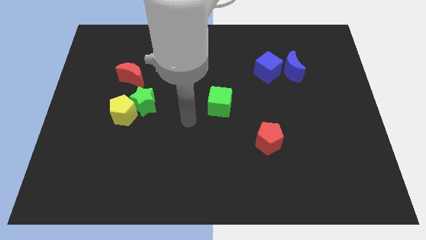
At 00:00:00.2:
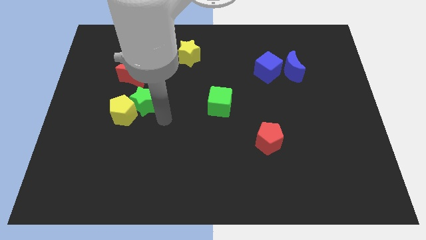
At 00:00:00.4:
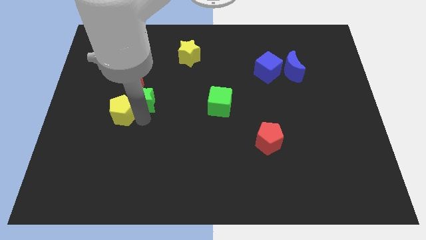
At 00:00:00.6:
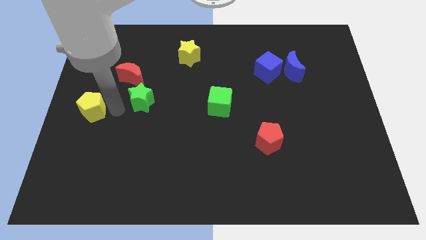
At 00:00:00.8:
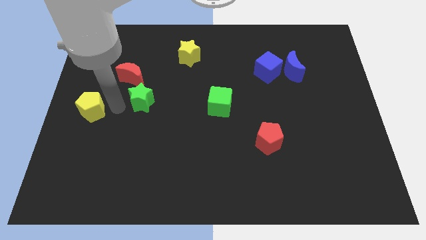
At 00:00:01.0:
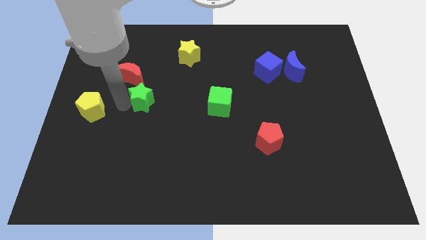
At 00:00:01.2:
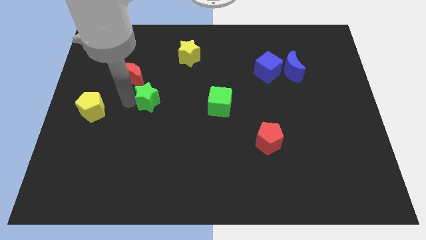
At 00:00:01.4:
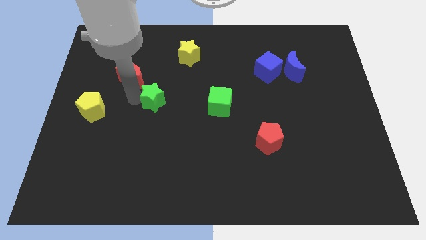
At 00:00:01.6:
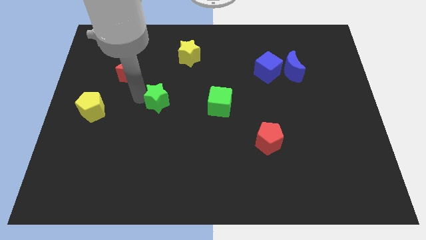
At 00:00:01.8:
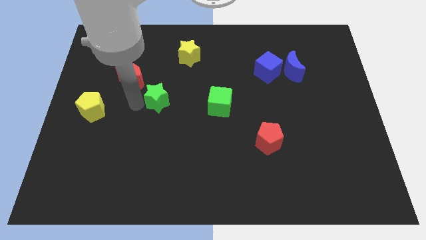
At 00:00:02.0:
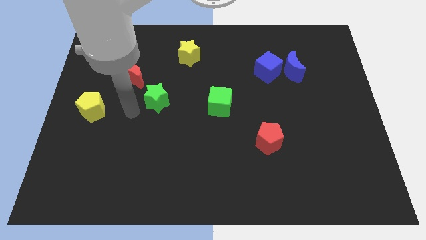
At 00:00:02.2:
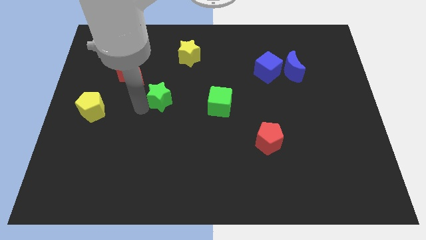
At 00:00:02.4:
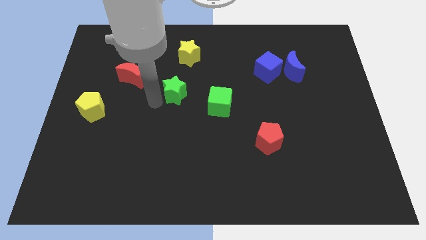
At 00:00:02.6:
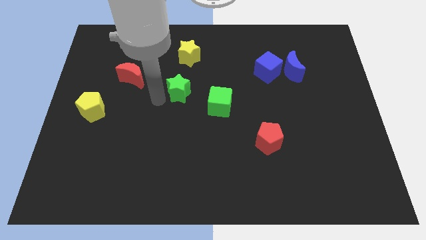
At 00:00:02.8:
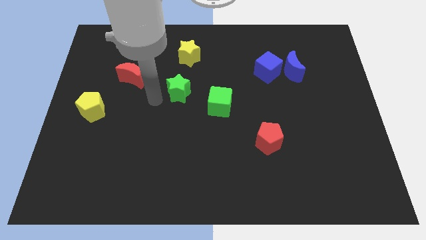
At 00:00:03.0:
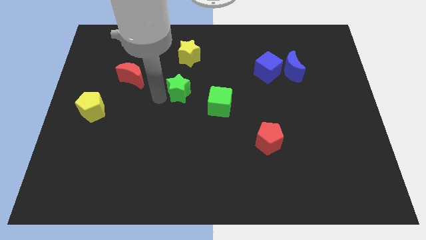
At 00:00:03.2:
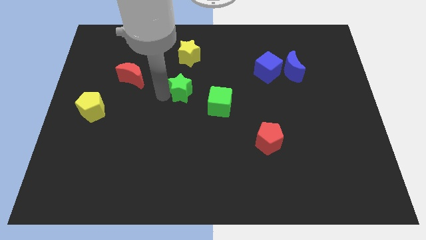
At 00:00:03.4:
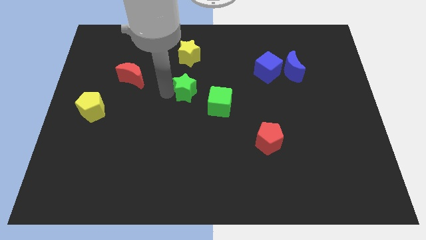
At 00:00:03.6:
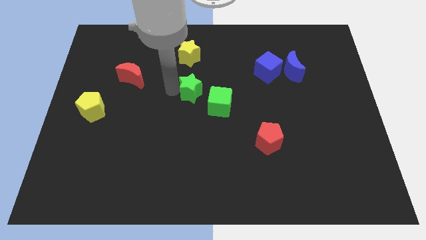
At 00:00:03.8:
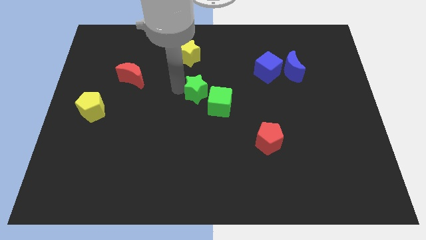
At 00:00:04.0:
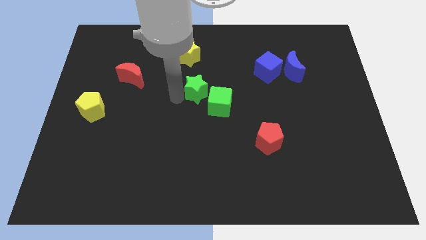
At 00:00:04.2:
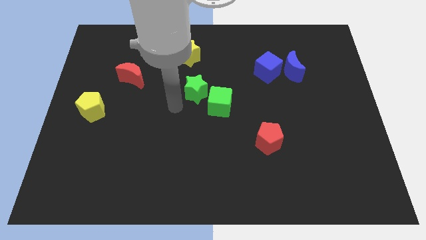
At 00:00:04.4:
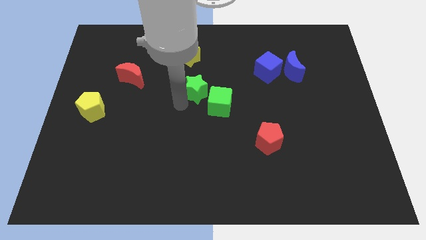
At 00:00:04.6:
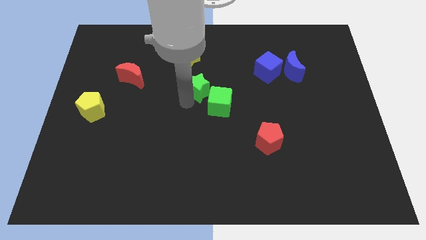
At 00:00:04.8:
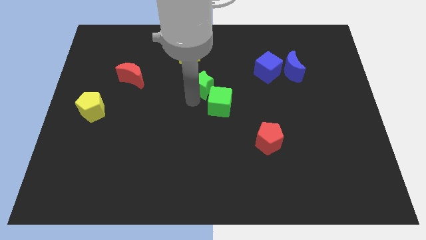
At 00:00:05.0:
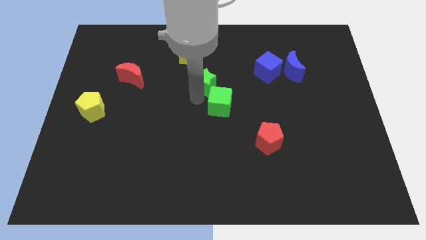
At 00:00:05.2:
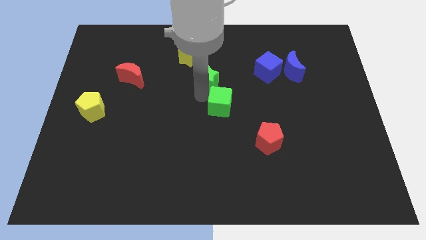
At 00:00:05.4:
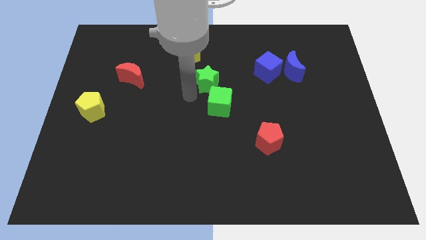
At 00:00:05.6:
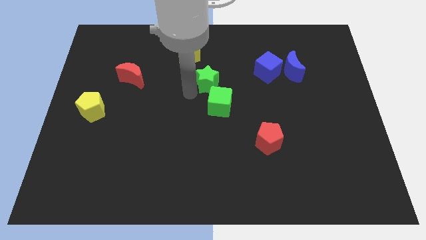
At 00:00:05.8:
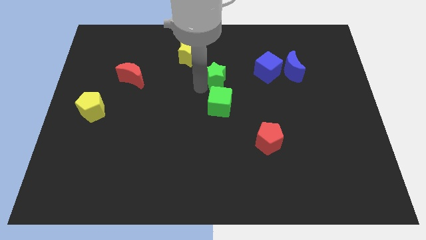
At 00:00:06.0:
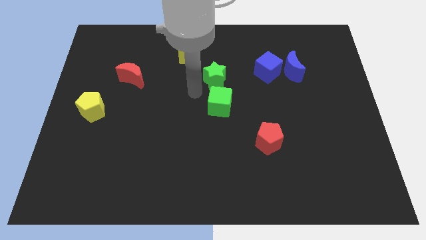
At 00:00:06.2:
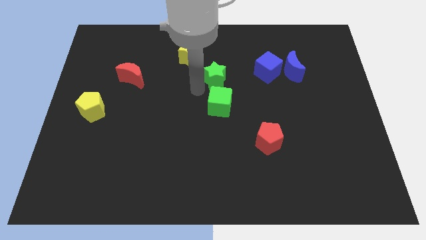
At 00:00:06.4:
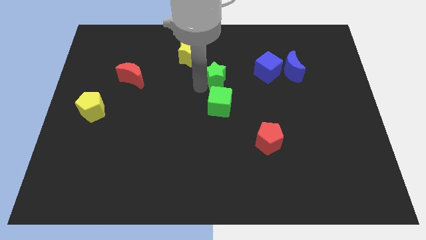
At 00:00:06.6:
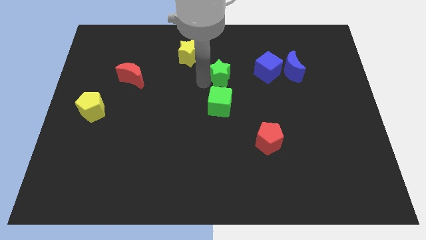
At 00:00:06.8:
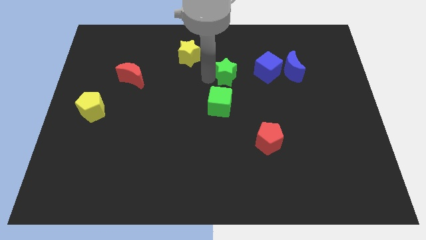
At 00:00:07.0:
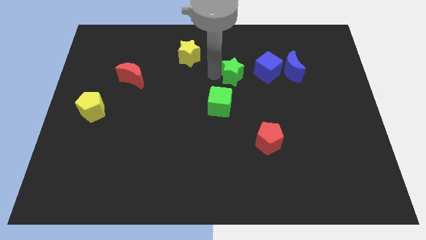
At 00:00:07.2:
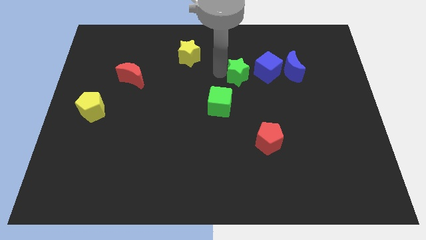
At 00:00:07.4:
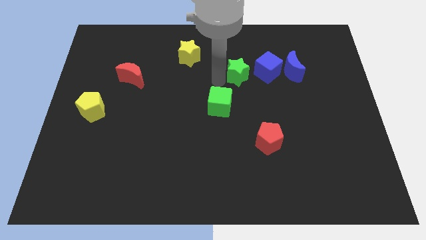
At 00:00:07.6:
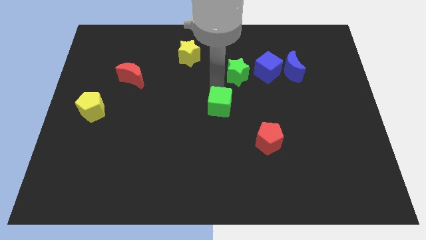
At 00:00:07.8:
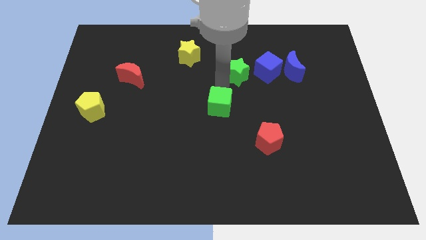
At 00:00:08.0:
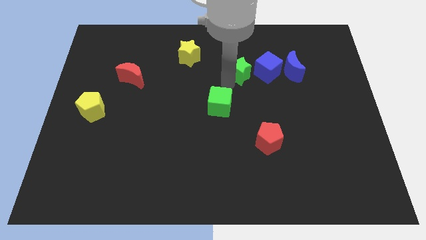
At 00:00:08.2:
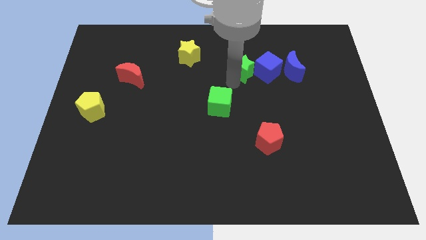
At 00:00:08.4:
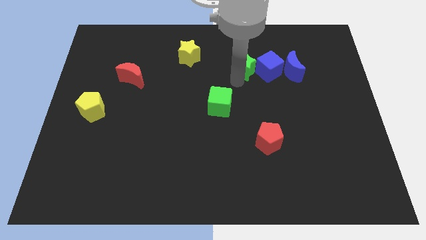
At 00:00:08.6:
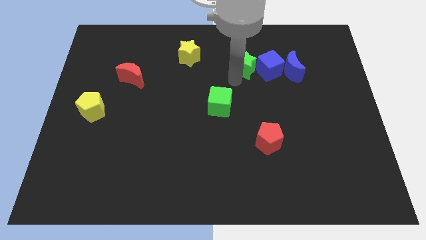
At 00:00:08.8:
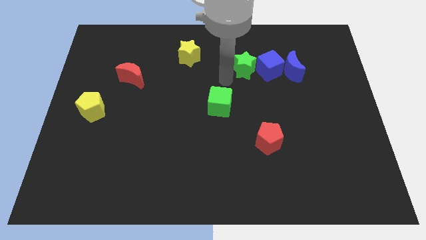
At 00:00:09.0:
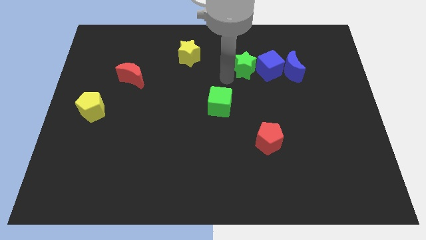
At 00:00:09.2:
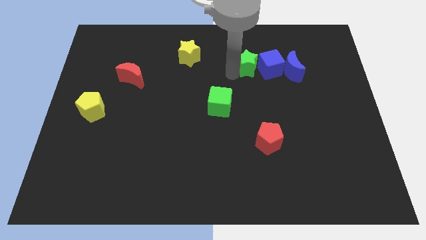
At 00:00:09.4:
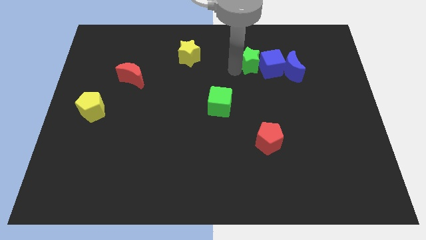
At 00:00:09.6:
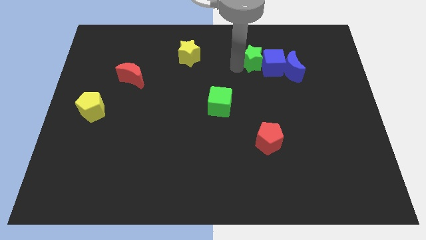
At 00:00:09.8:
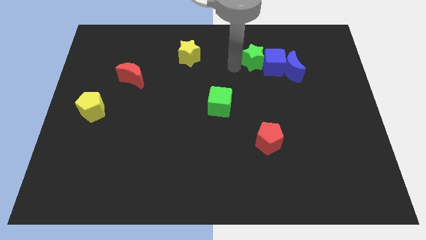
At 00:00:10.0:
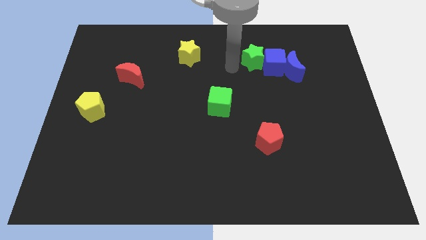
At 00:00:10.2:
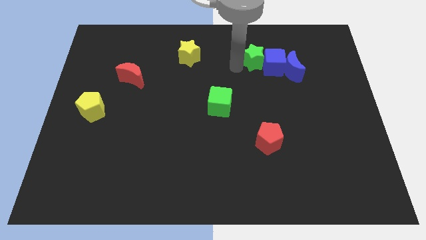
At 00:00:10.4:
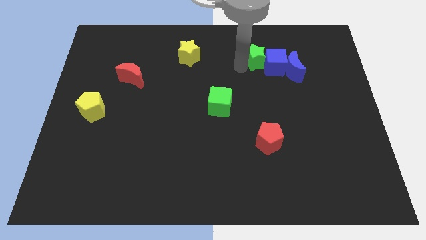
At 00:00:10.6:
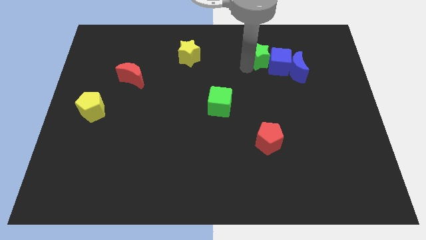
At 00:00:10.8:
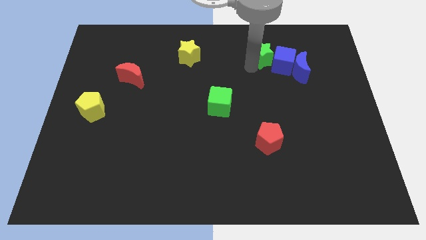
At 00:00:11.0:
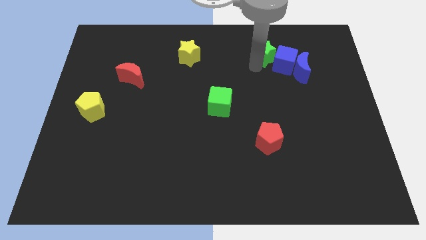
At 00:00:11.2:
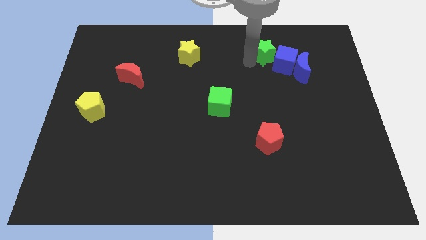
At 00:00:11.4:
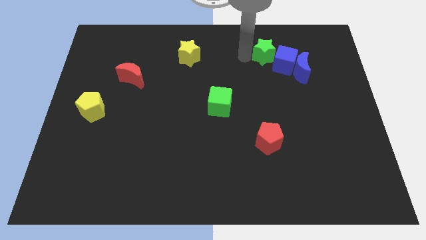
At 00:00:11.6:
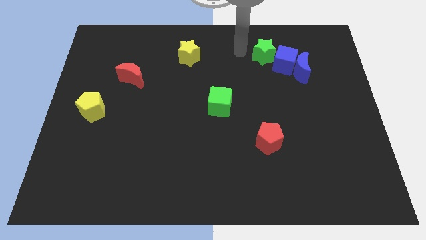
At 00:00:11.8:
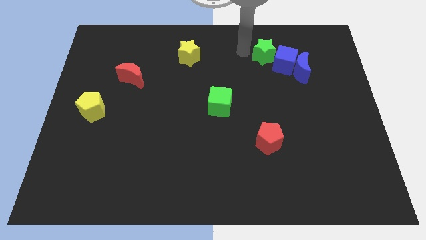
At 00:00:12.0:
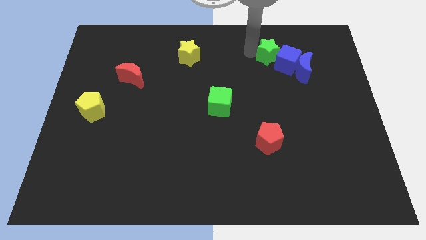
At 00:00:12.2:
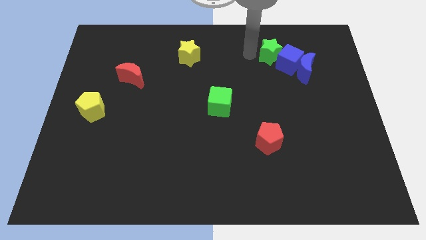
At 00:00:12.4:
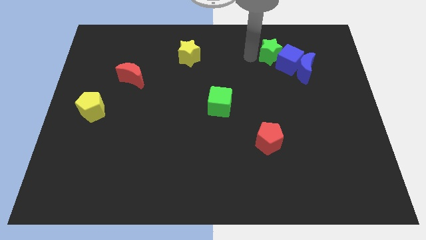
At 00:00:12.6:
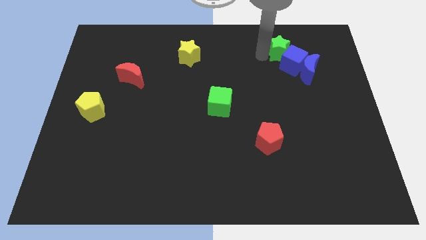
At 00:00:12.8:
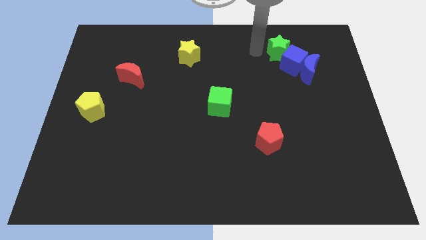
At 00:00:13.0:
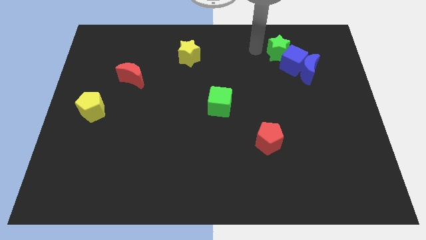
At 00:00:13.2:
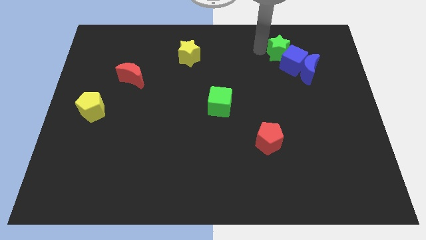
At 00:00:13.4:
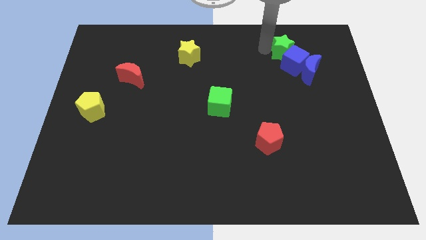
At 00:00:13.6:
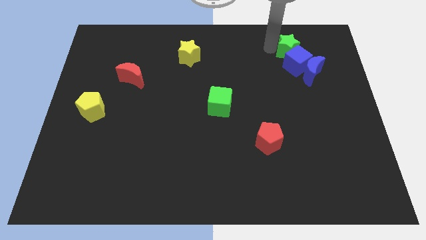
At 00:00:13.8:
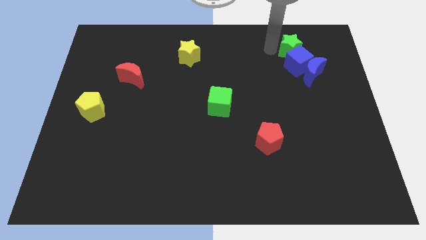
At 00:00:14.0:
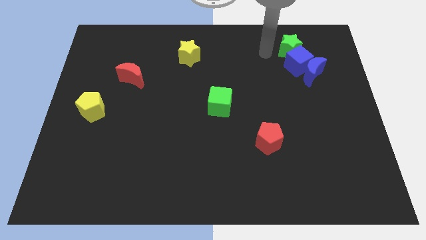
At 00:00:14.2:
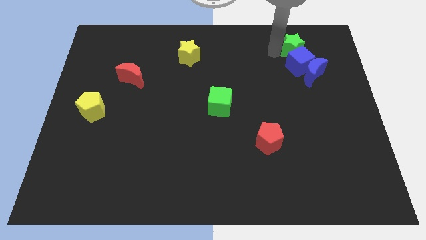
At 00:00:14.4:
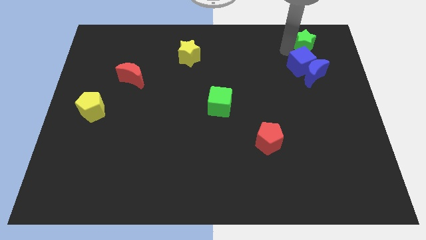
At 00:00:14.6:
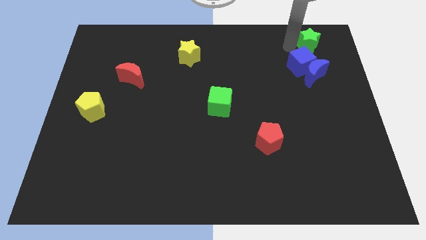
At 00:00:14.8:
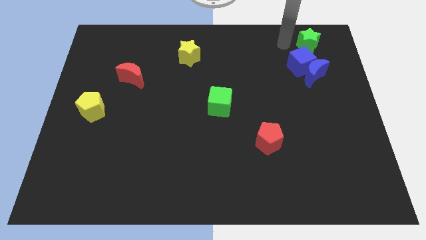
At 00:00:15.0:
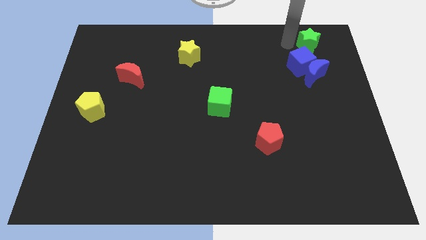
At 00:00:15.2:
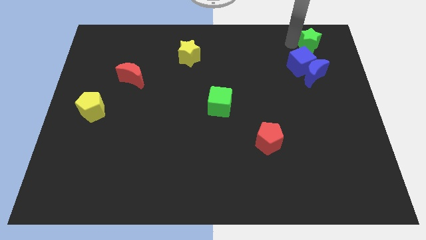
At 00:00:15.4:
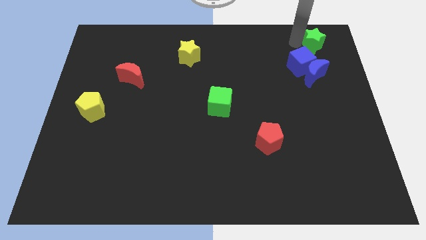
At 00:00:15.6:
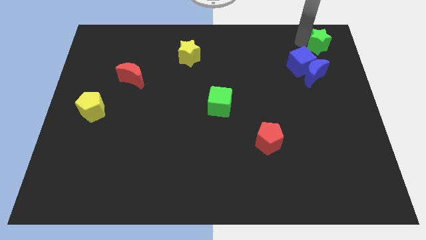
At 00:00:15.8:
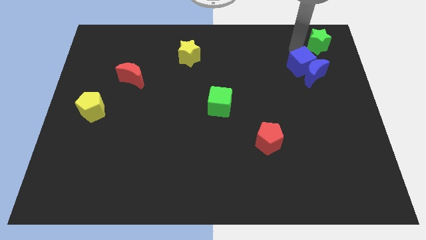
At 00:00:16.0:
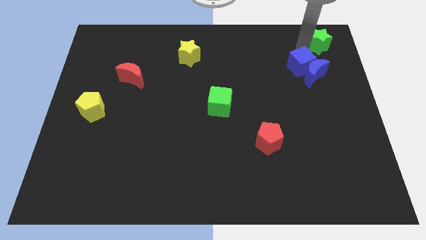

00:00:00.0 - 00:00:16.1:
put the green star to the upper right corner
